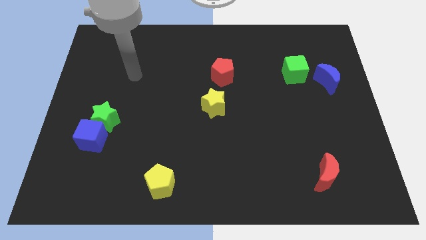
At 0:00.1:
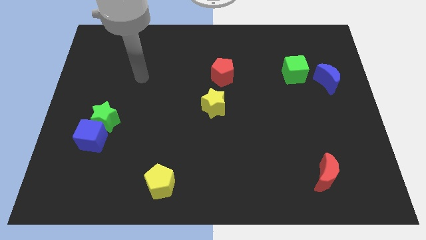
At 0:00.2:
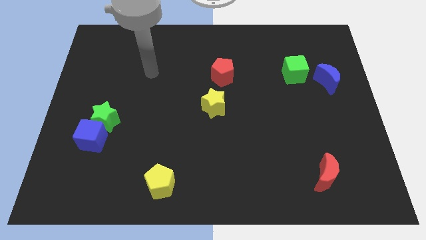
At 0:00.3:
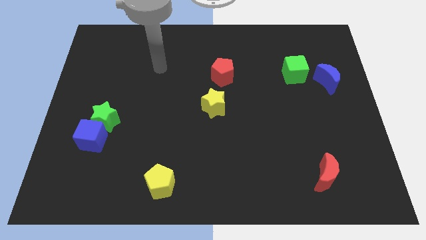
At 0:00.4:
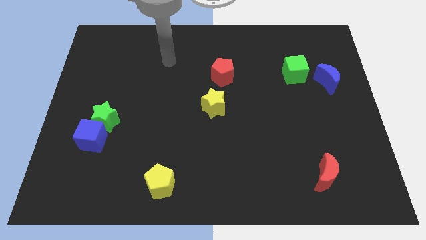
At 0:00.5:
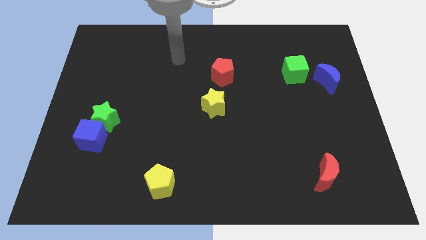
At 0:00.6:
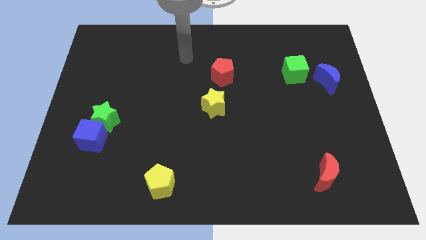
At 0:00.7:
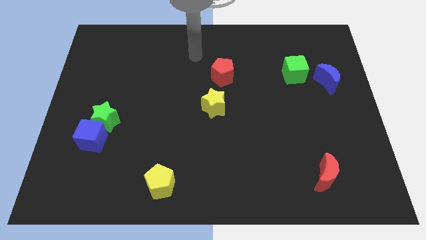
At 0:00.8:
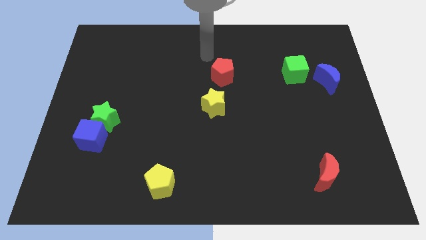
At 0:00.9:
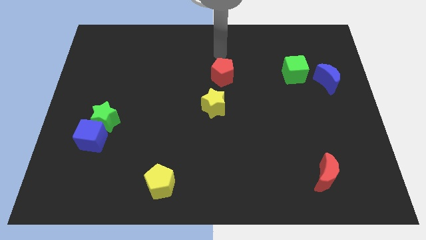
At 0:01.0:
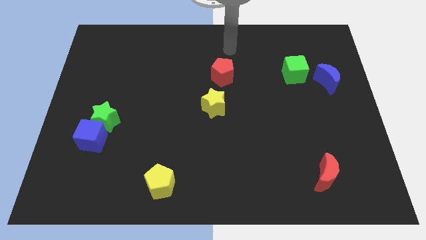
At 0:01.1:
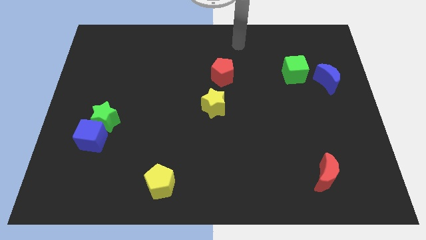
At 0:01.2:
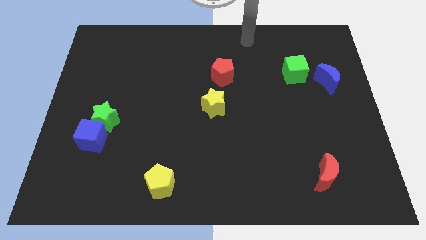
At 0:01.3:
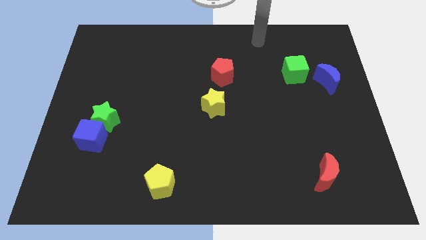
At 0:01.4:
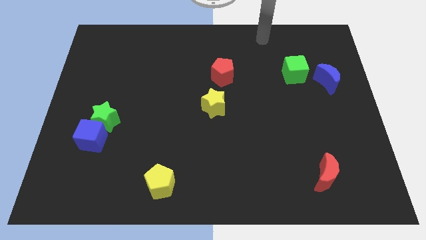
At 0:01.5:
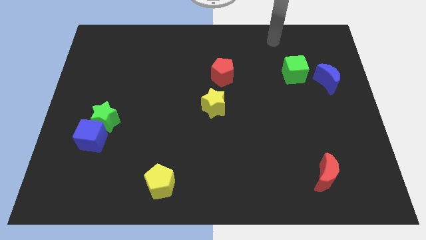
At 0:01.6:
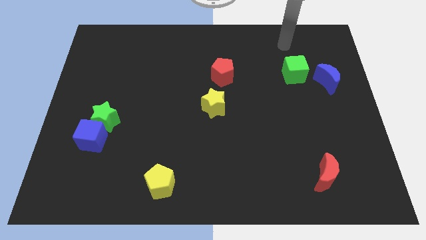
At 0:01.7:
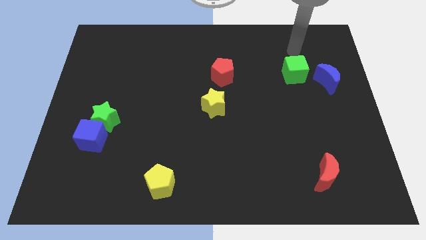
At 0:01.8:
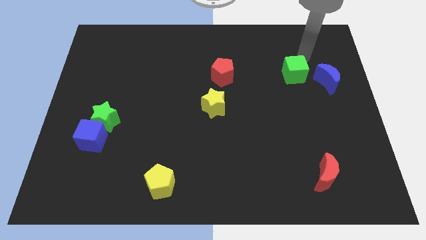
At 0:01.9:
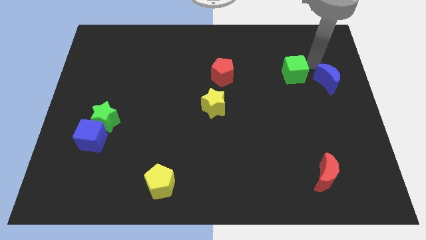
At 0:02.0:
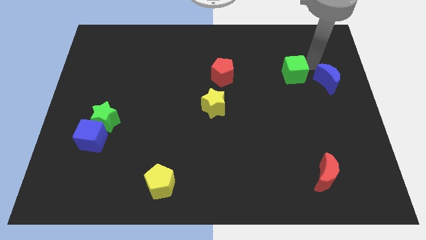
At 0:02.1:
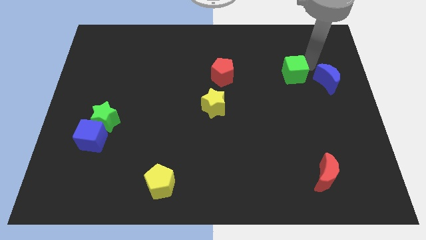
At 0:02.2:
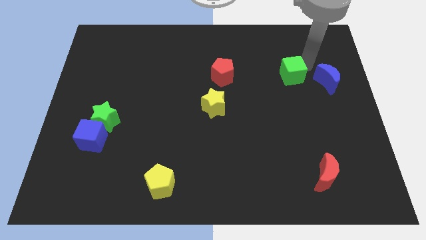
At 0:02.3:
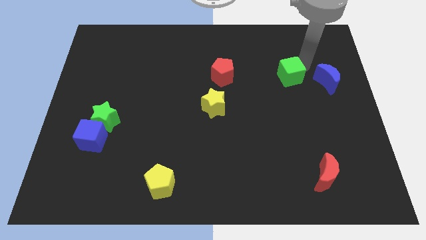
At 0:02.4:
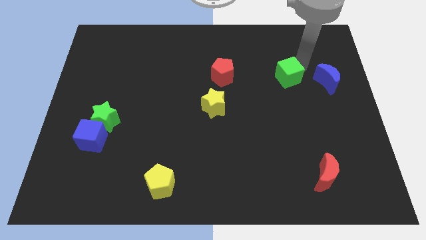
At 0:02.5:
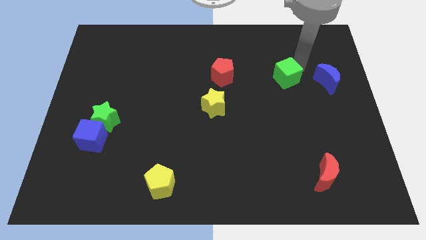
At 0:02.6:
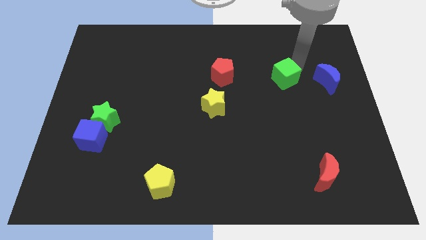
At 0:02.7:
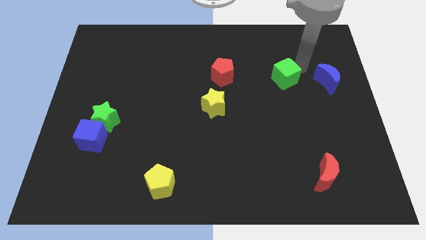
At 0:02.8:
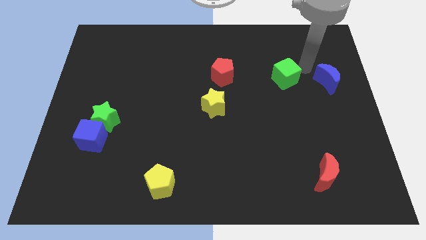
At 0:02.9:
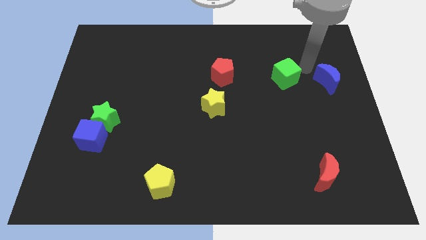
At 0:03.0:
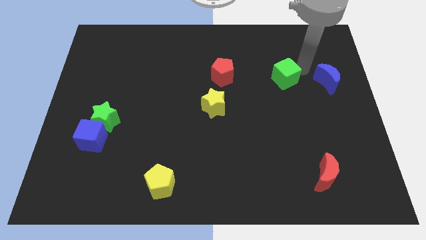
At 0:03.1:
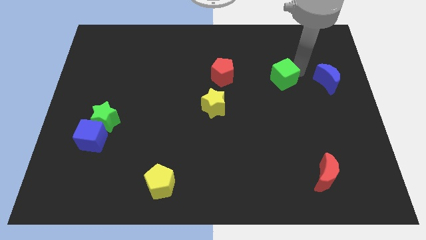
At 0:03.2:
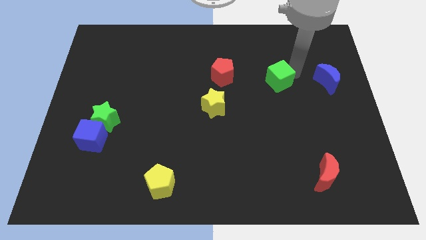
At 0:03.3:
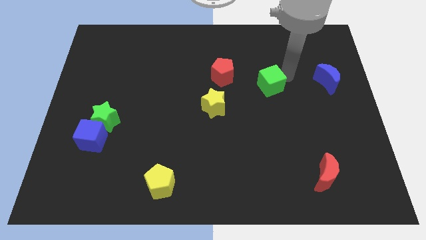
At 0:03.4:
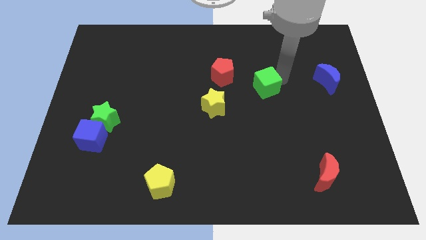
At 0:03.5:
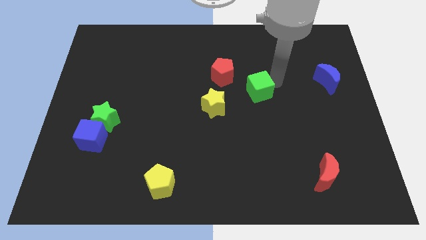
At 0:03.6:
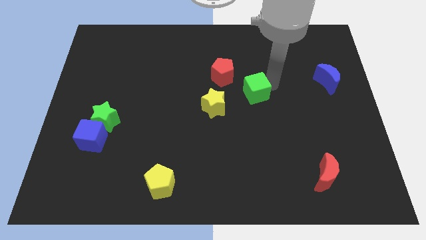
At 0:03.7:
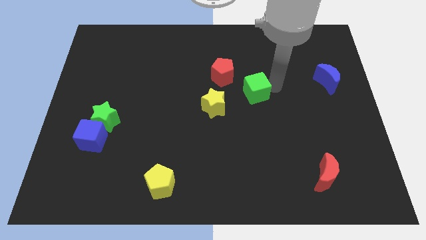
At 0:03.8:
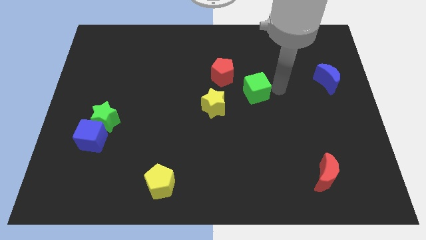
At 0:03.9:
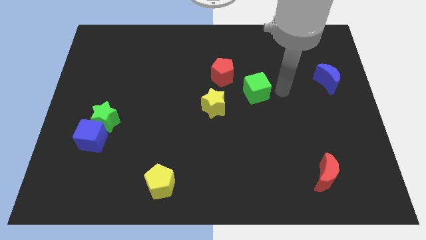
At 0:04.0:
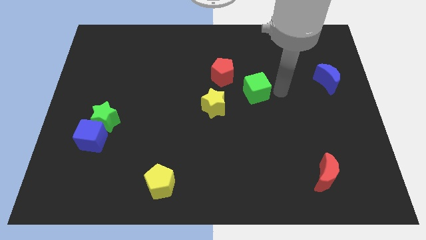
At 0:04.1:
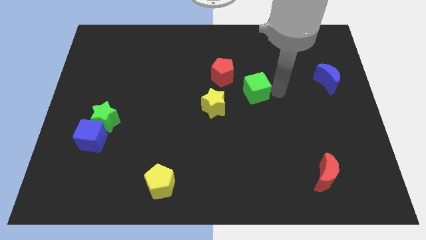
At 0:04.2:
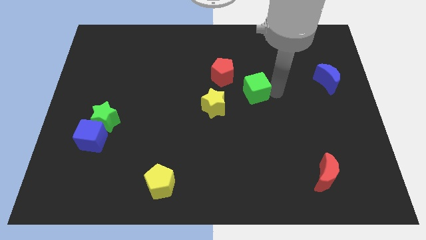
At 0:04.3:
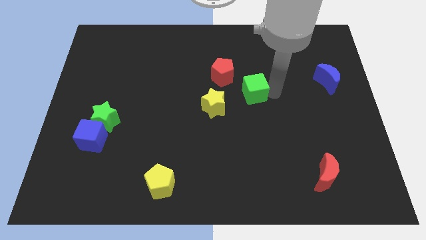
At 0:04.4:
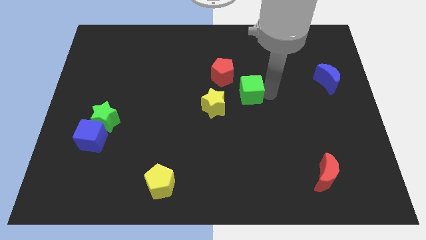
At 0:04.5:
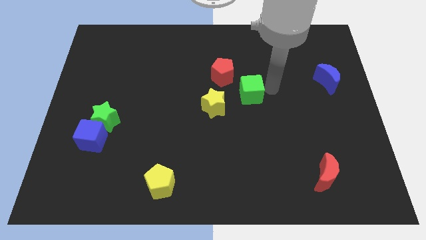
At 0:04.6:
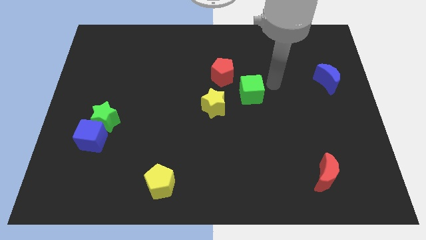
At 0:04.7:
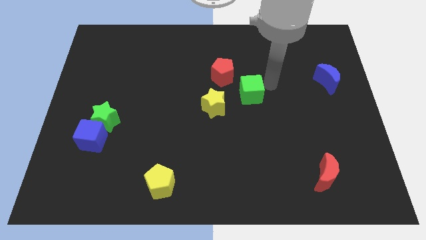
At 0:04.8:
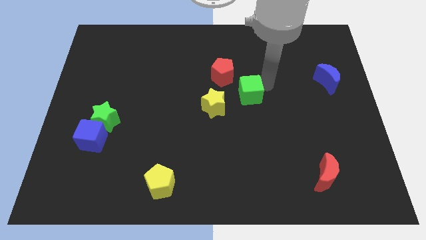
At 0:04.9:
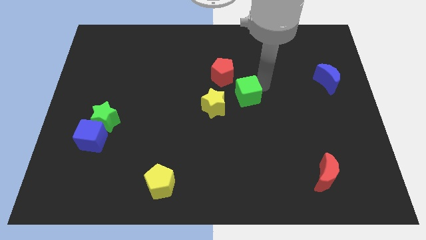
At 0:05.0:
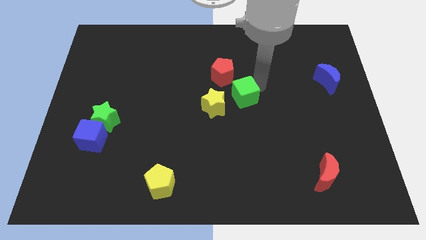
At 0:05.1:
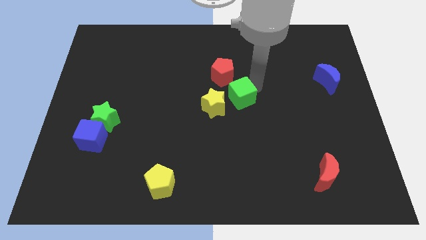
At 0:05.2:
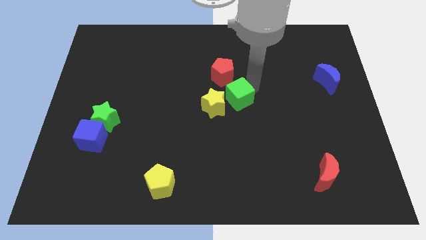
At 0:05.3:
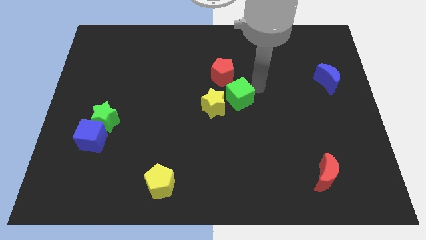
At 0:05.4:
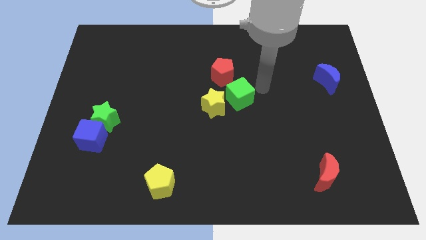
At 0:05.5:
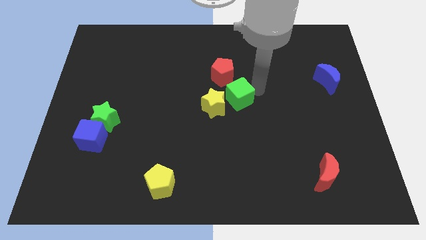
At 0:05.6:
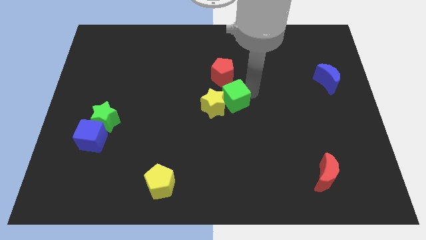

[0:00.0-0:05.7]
push the green cube next to the yellow star

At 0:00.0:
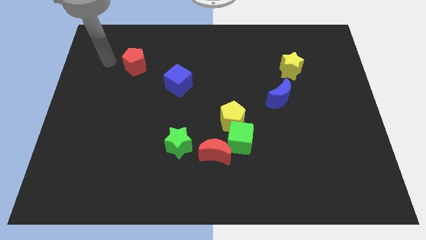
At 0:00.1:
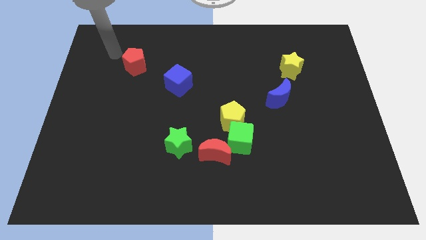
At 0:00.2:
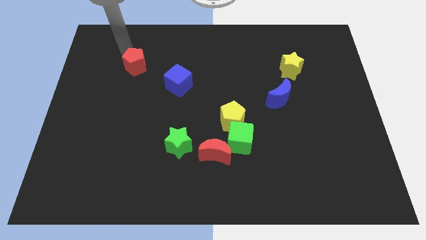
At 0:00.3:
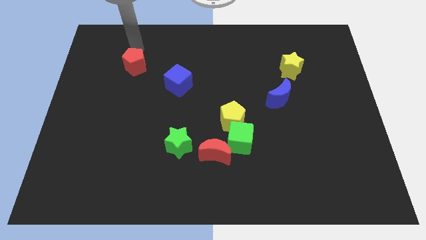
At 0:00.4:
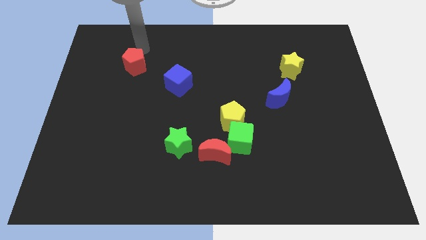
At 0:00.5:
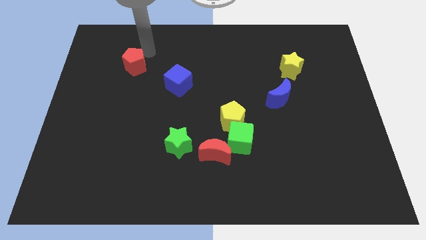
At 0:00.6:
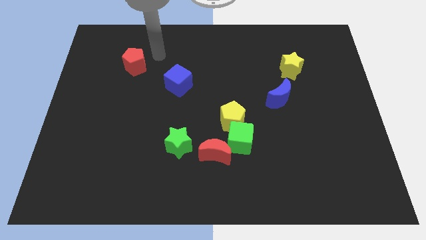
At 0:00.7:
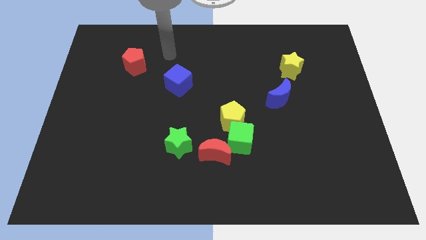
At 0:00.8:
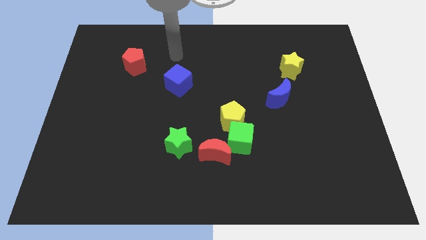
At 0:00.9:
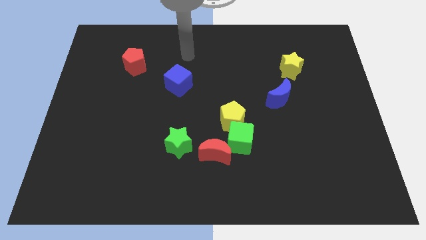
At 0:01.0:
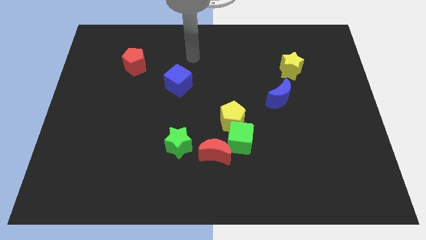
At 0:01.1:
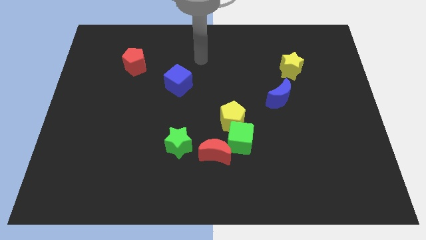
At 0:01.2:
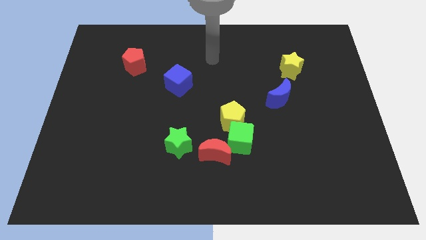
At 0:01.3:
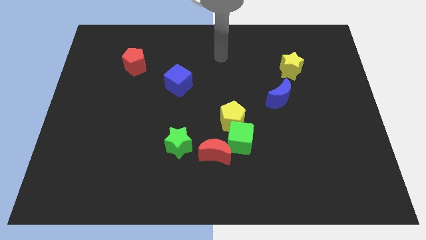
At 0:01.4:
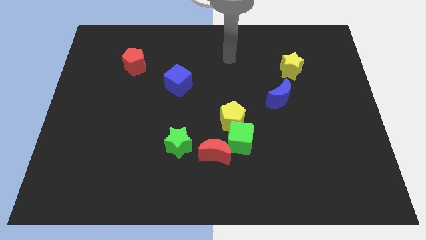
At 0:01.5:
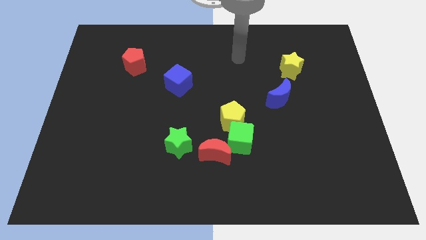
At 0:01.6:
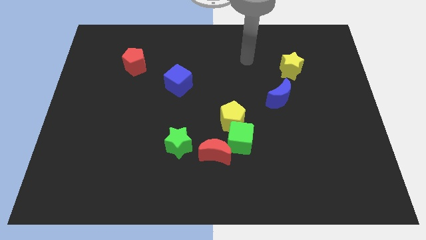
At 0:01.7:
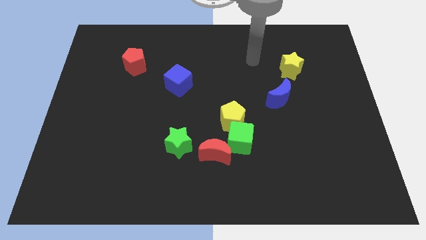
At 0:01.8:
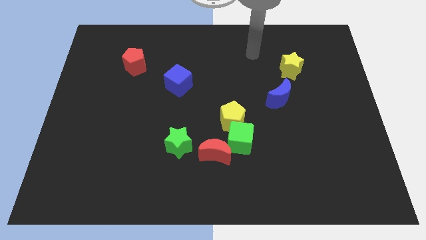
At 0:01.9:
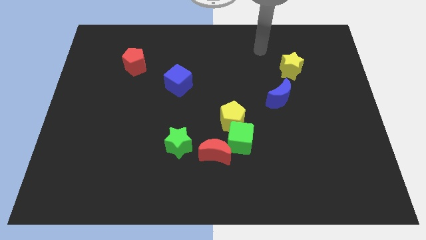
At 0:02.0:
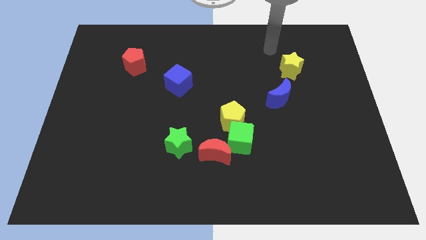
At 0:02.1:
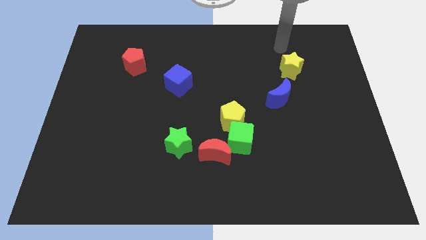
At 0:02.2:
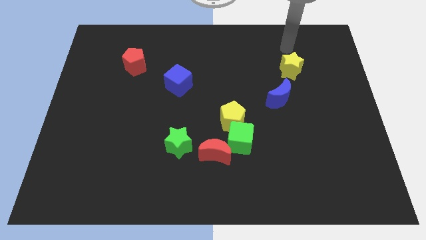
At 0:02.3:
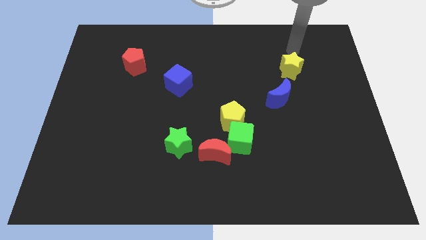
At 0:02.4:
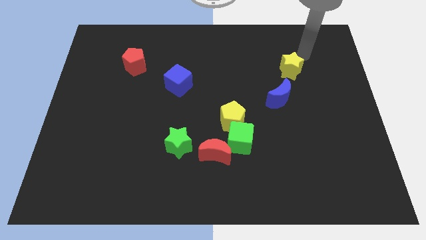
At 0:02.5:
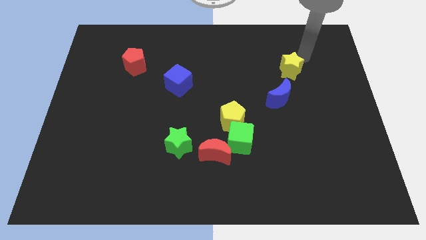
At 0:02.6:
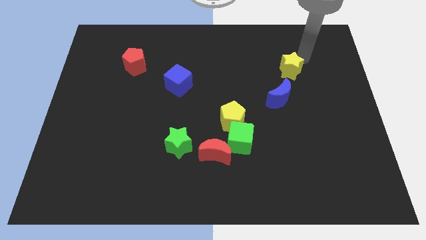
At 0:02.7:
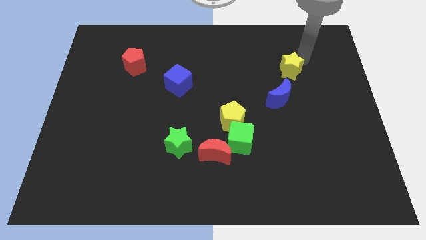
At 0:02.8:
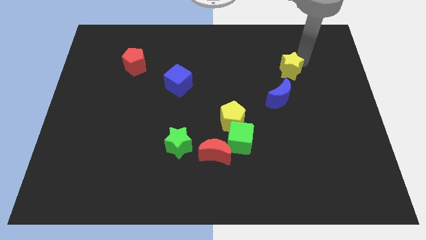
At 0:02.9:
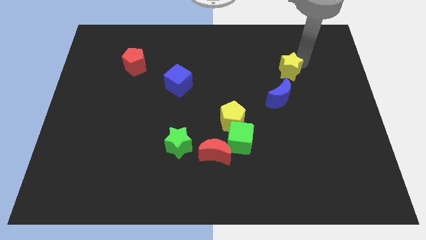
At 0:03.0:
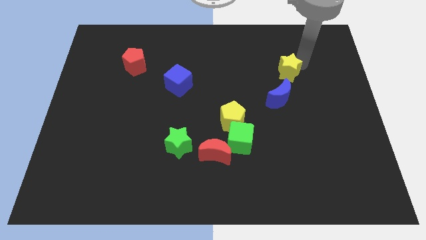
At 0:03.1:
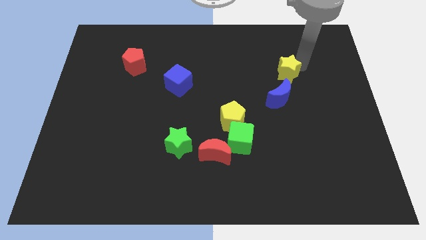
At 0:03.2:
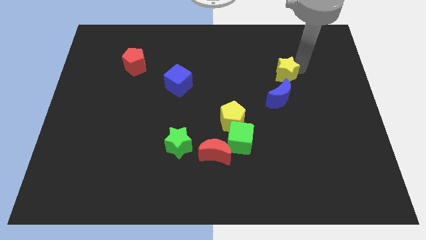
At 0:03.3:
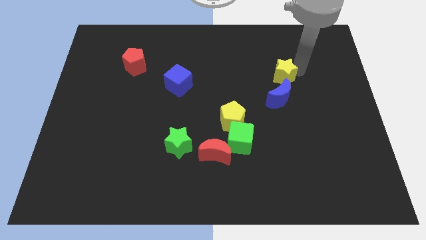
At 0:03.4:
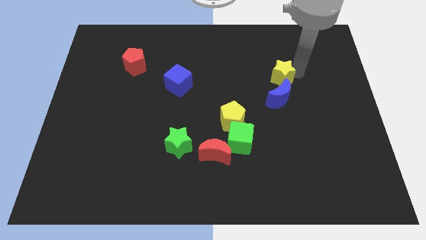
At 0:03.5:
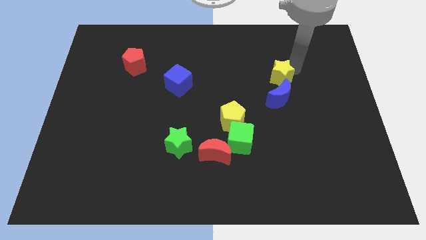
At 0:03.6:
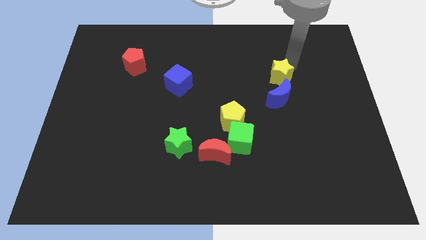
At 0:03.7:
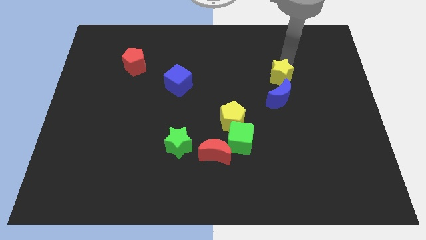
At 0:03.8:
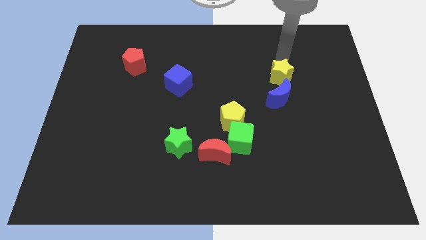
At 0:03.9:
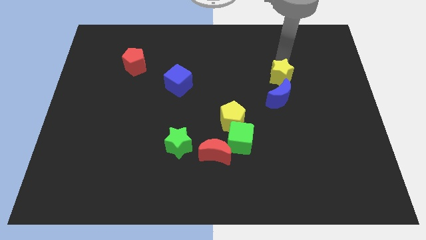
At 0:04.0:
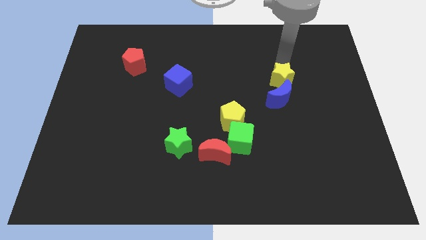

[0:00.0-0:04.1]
push the yellow star next to the blue moon
